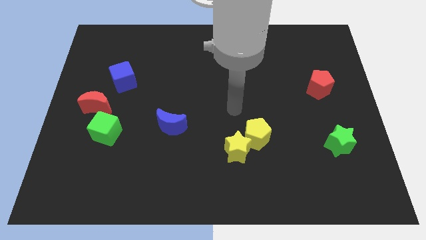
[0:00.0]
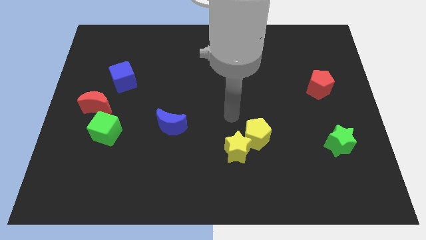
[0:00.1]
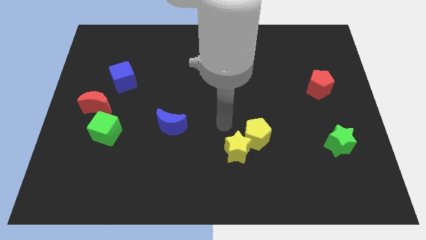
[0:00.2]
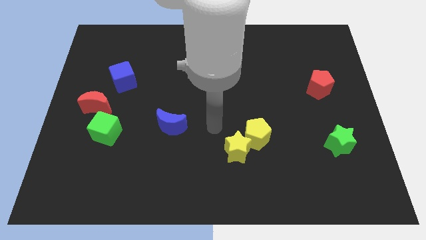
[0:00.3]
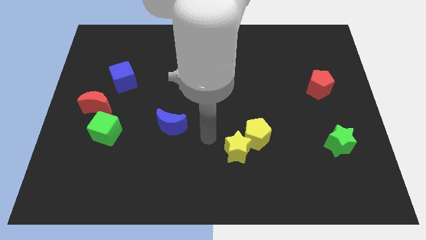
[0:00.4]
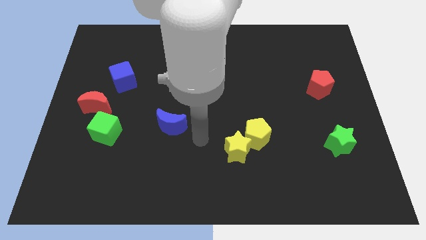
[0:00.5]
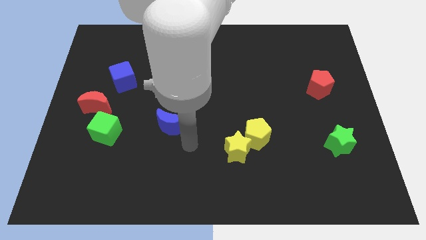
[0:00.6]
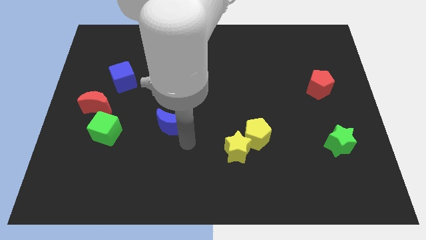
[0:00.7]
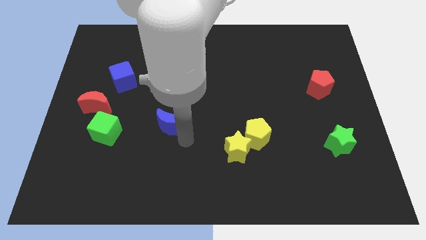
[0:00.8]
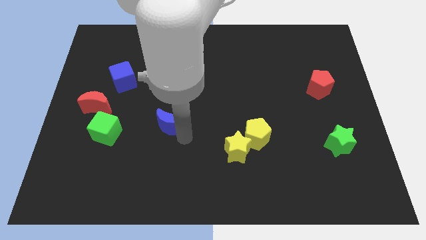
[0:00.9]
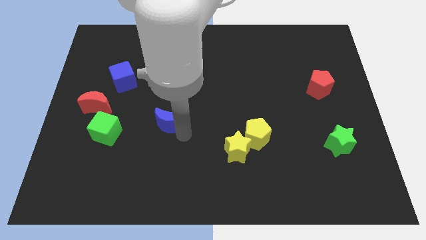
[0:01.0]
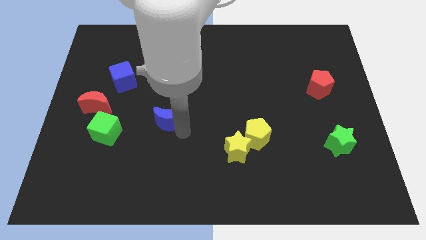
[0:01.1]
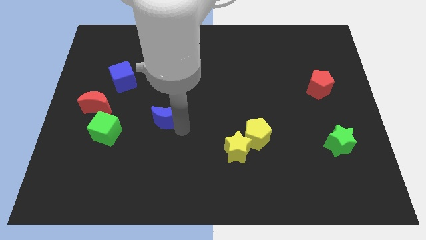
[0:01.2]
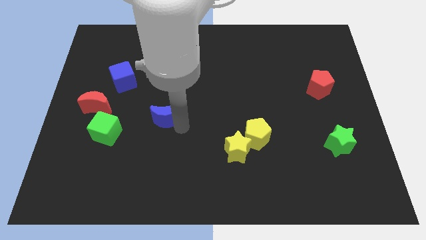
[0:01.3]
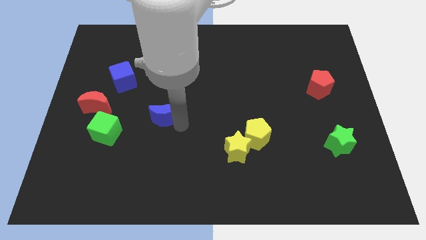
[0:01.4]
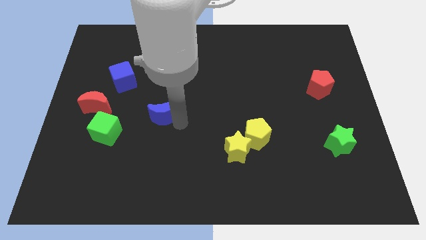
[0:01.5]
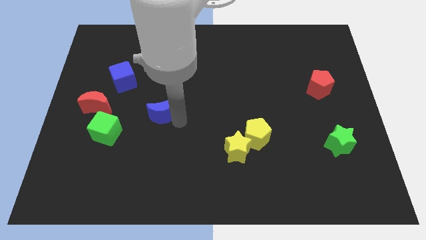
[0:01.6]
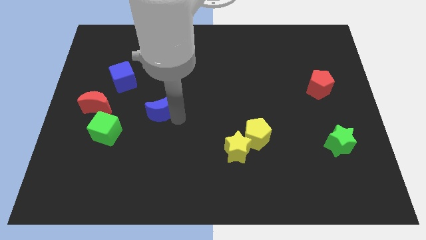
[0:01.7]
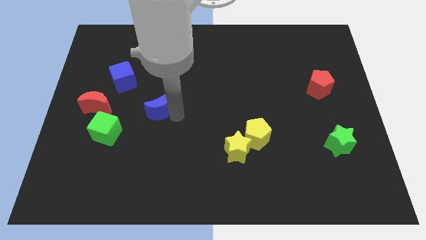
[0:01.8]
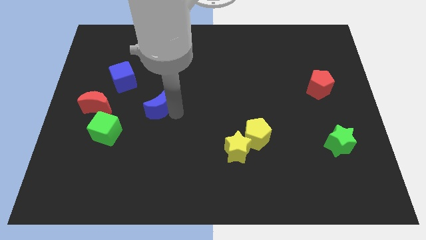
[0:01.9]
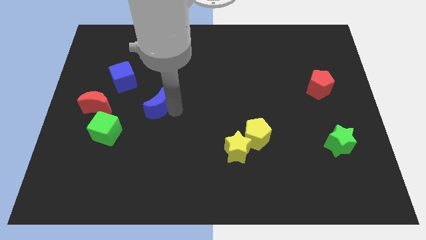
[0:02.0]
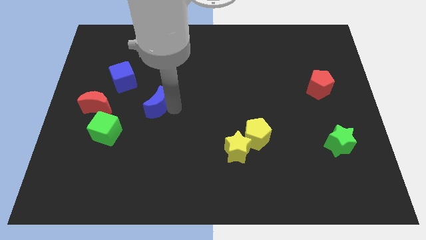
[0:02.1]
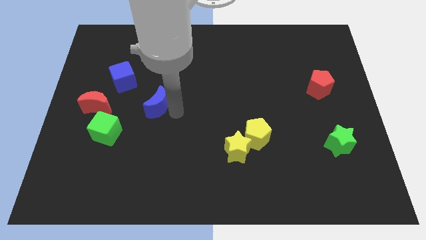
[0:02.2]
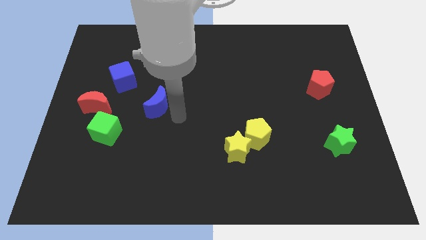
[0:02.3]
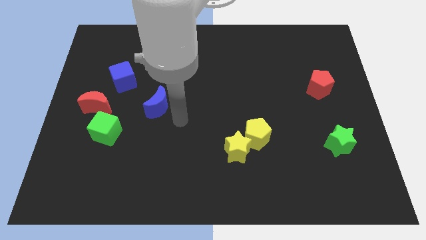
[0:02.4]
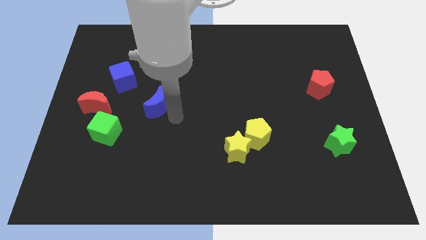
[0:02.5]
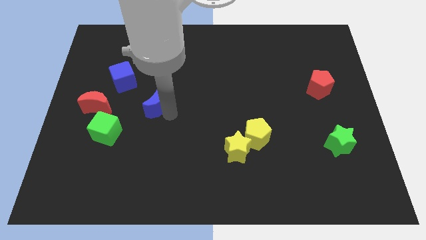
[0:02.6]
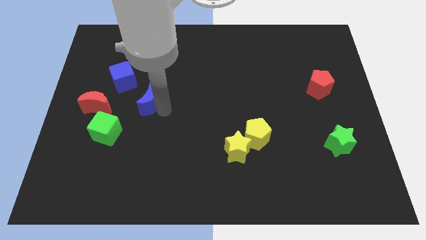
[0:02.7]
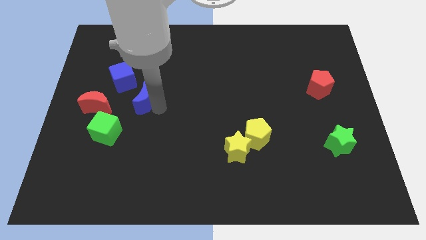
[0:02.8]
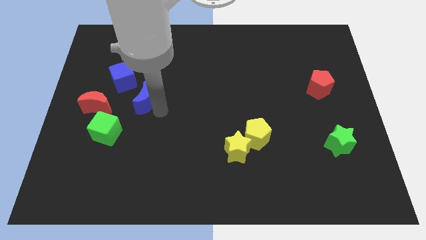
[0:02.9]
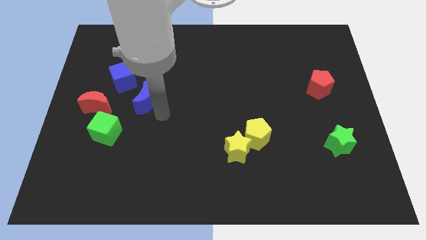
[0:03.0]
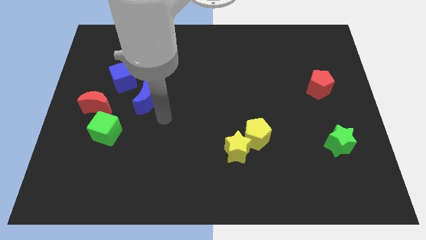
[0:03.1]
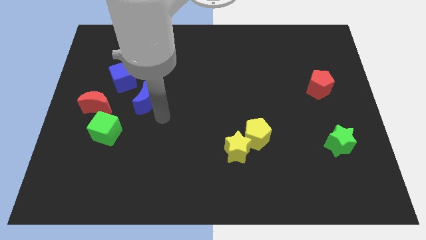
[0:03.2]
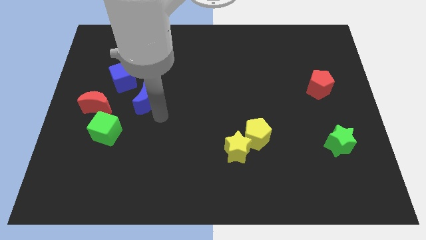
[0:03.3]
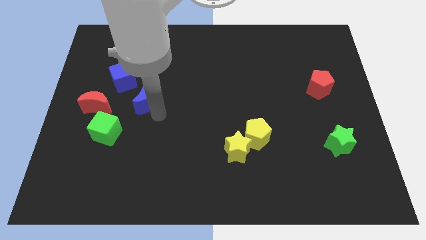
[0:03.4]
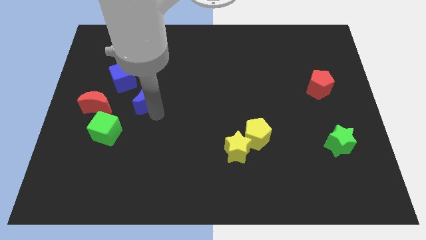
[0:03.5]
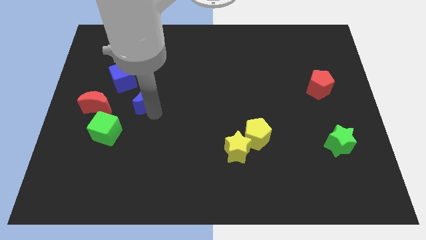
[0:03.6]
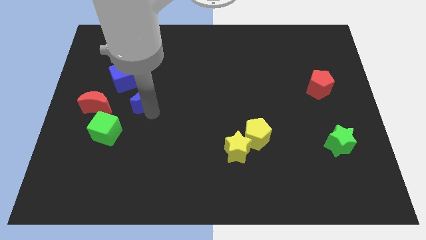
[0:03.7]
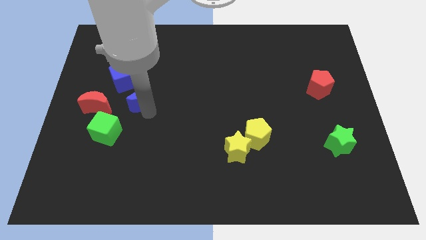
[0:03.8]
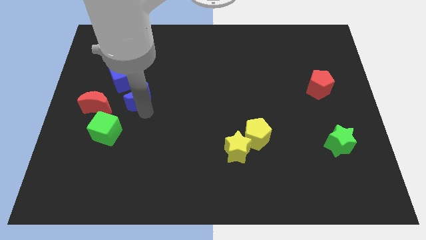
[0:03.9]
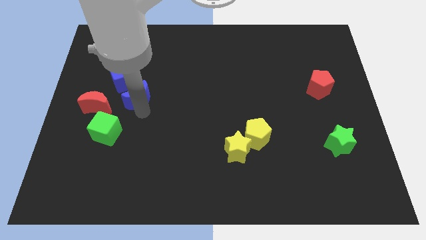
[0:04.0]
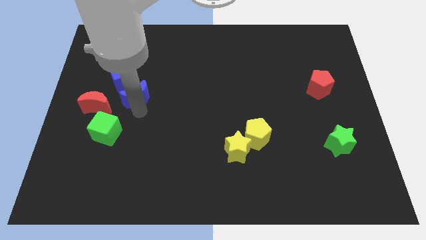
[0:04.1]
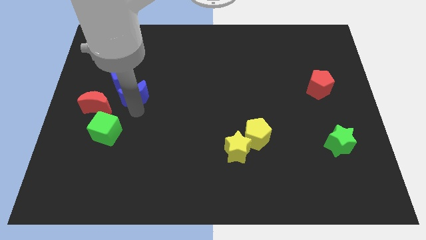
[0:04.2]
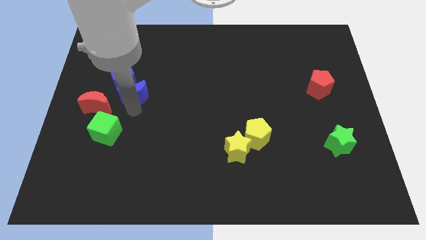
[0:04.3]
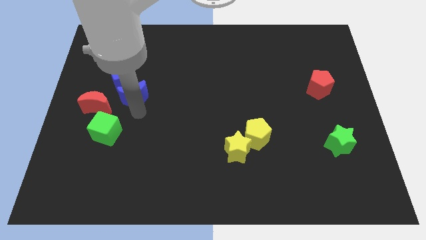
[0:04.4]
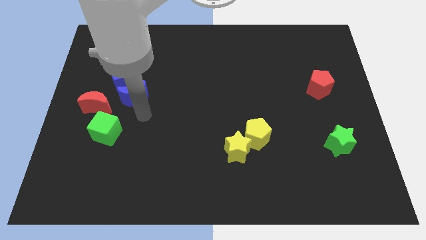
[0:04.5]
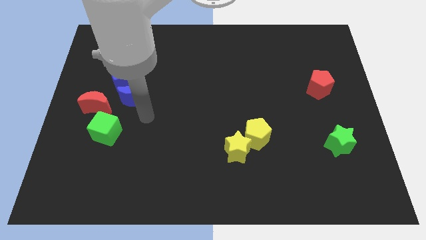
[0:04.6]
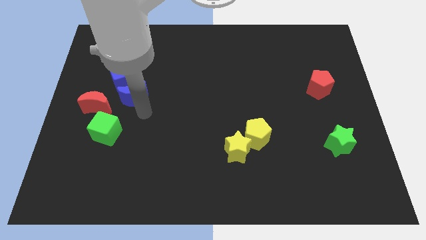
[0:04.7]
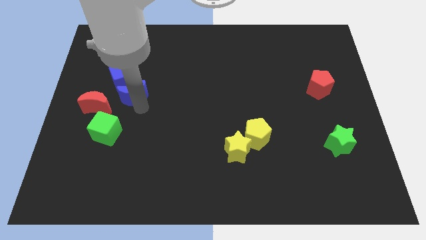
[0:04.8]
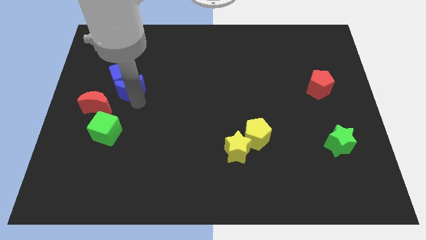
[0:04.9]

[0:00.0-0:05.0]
move the blue moon to the blue cube

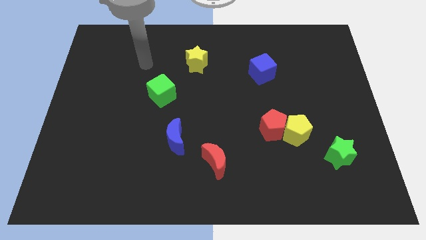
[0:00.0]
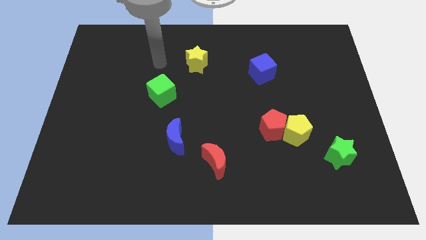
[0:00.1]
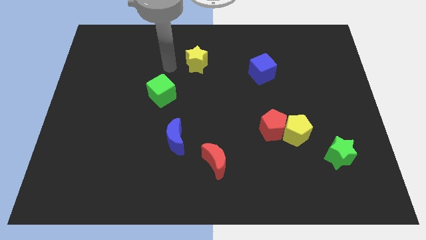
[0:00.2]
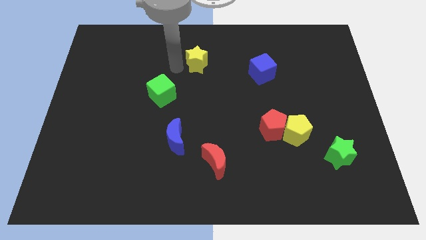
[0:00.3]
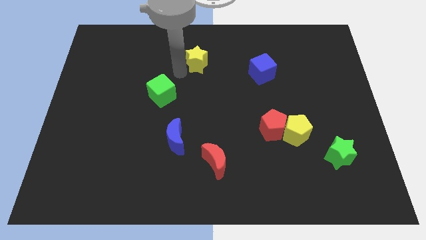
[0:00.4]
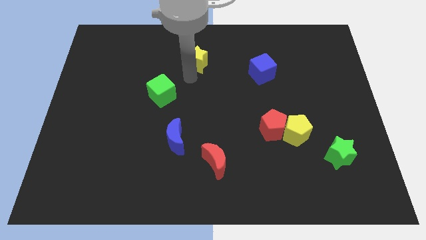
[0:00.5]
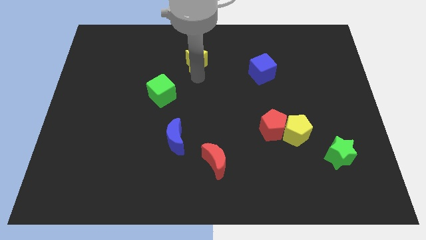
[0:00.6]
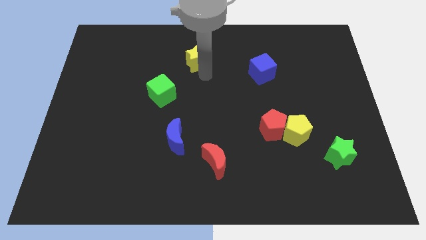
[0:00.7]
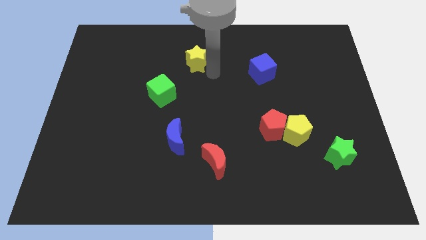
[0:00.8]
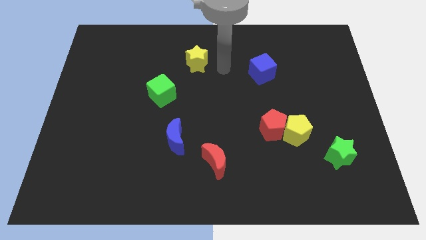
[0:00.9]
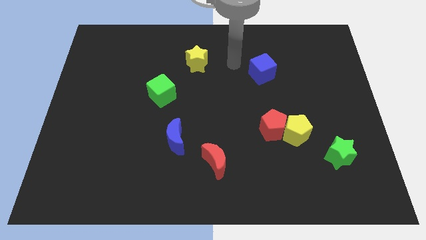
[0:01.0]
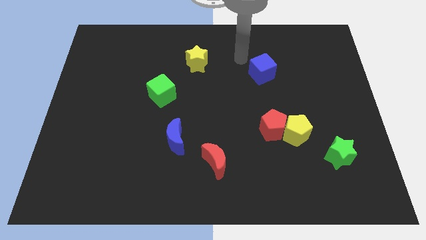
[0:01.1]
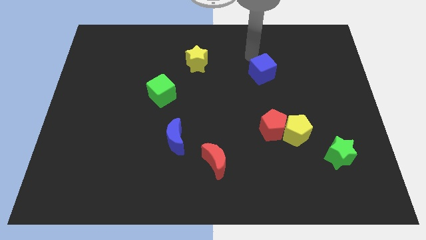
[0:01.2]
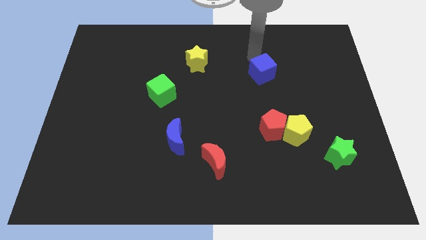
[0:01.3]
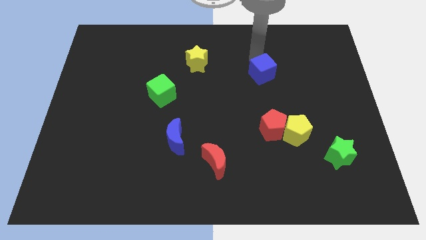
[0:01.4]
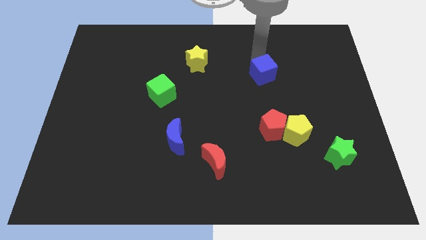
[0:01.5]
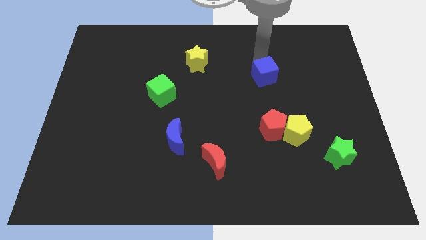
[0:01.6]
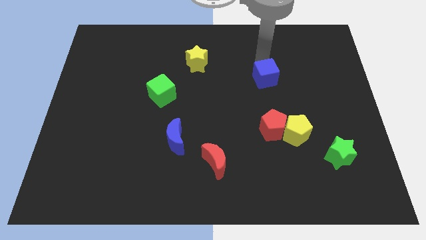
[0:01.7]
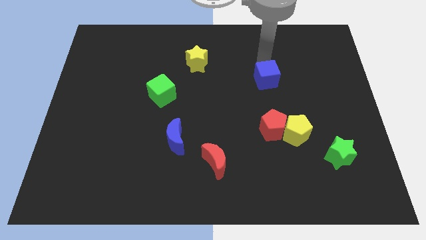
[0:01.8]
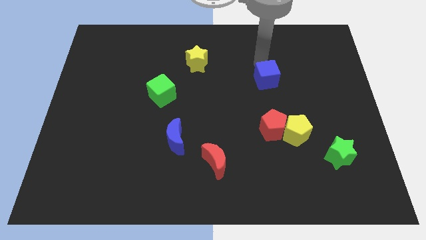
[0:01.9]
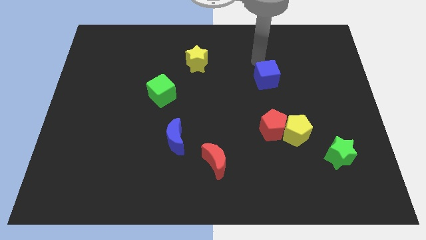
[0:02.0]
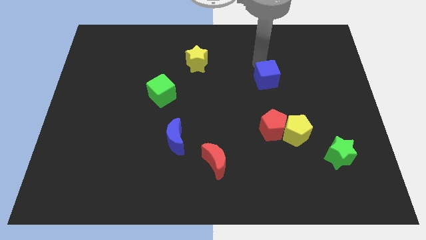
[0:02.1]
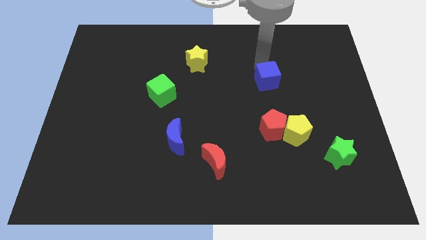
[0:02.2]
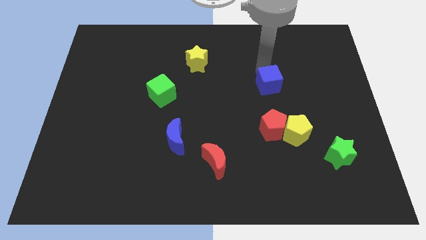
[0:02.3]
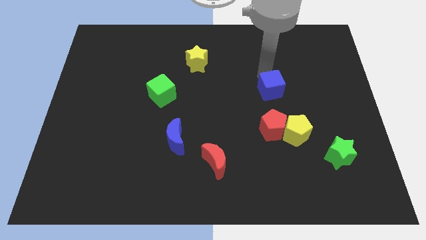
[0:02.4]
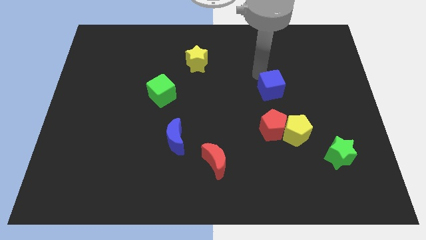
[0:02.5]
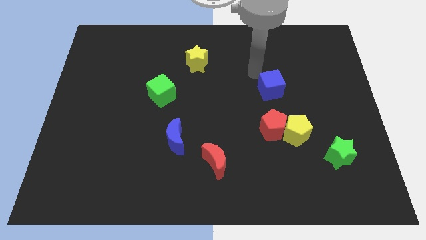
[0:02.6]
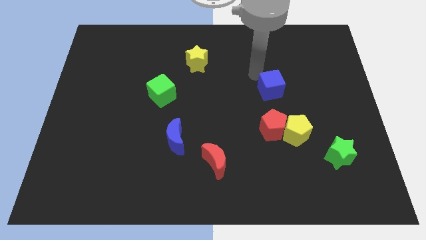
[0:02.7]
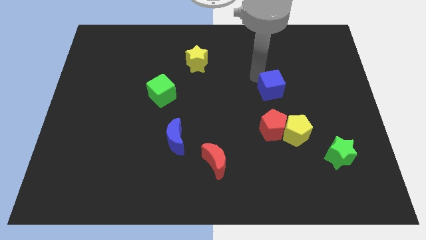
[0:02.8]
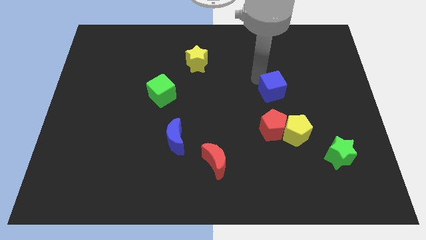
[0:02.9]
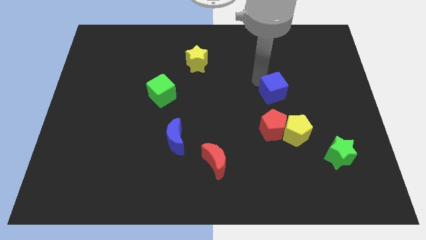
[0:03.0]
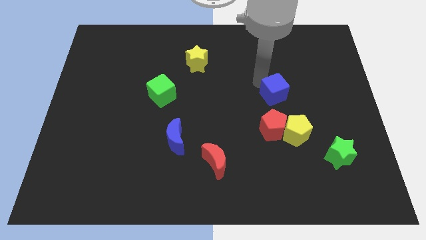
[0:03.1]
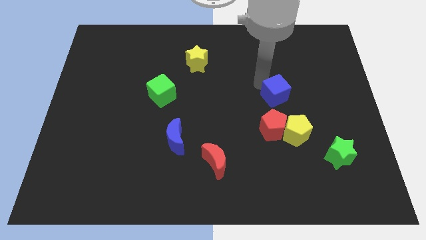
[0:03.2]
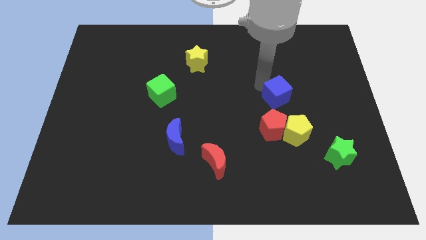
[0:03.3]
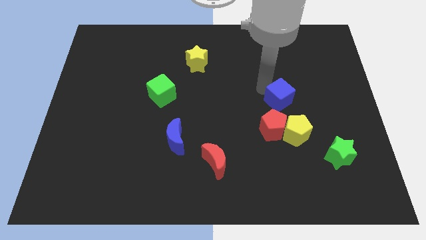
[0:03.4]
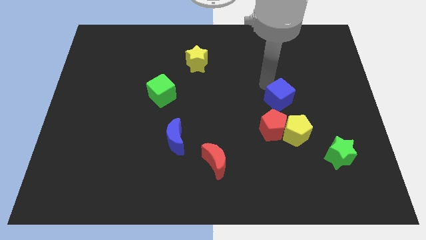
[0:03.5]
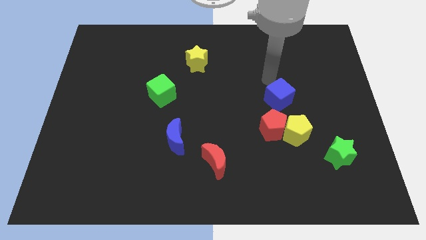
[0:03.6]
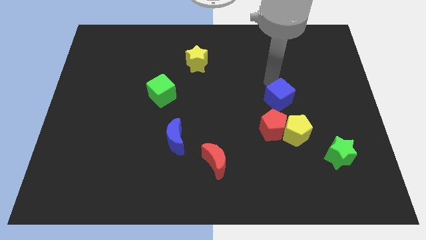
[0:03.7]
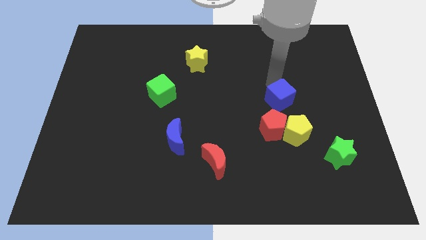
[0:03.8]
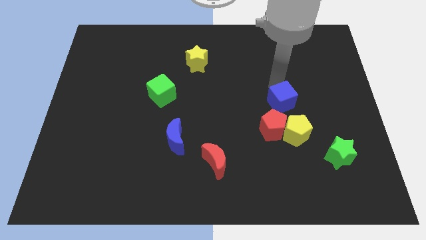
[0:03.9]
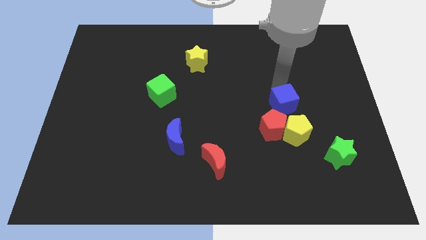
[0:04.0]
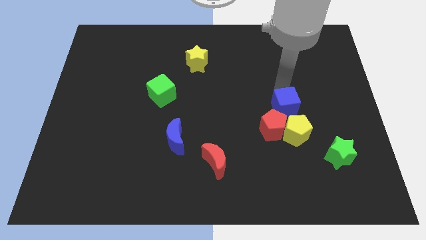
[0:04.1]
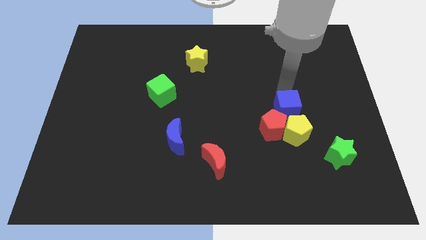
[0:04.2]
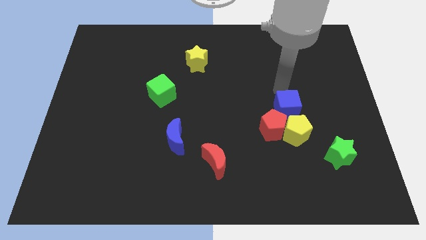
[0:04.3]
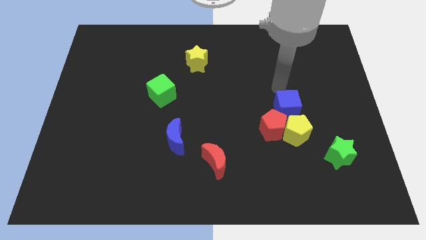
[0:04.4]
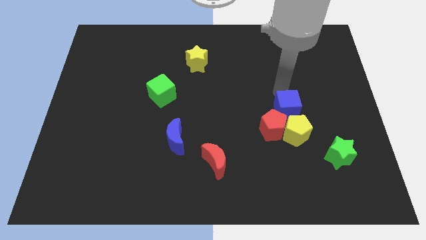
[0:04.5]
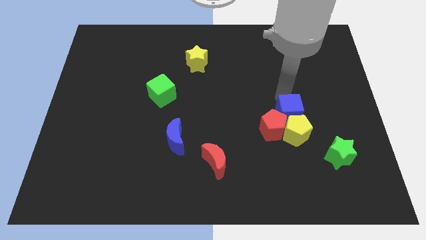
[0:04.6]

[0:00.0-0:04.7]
put the blue cube to the yellow pentagon
